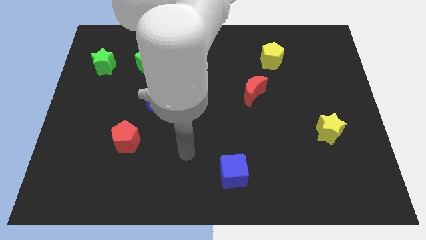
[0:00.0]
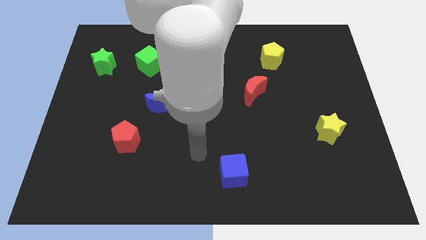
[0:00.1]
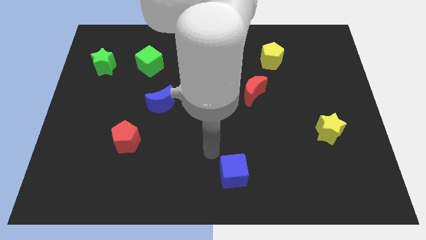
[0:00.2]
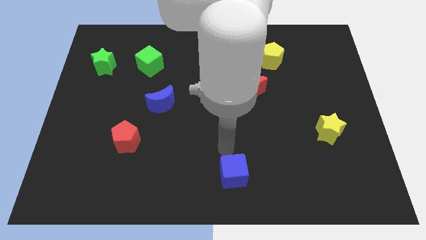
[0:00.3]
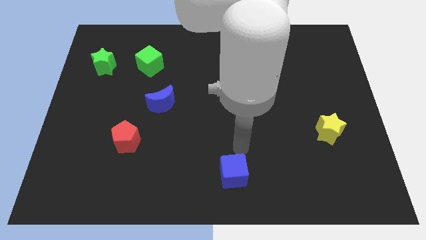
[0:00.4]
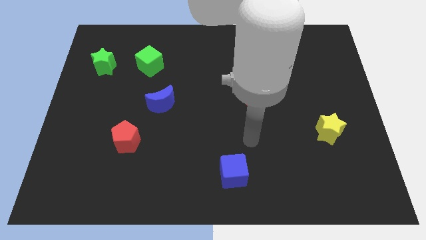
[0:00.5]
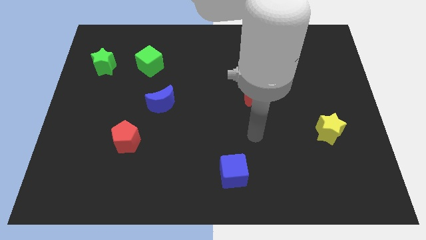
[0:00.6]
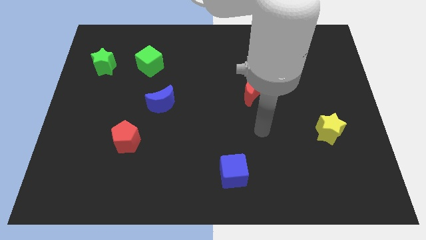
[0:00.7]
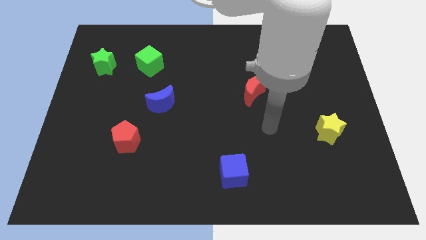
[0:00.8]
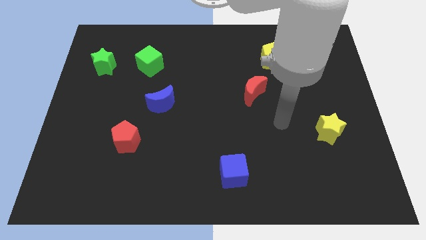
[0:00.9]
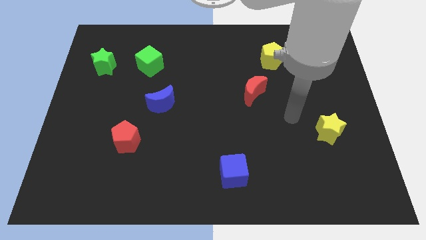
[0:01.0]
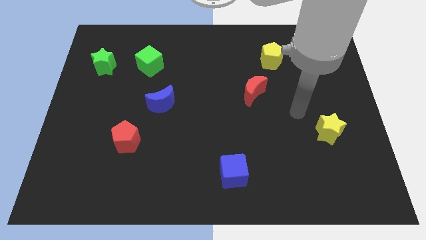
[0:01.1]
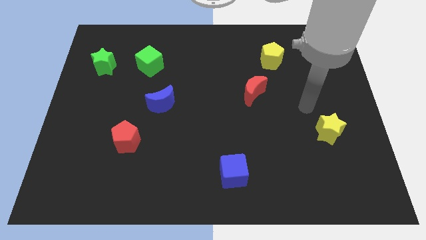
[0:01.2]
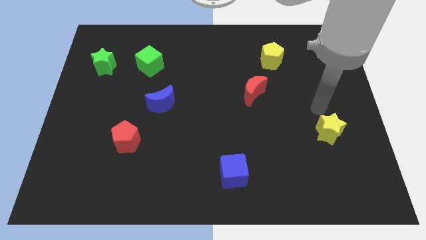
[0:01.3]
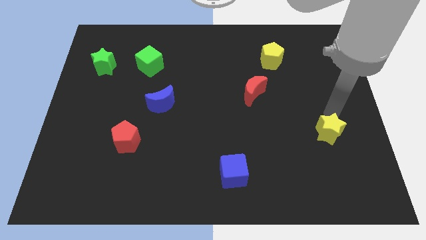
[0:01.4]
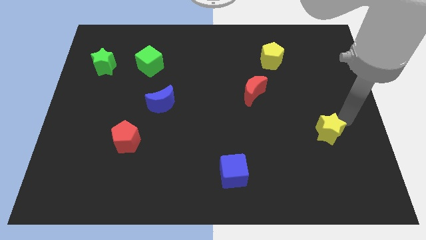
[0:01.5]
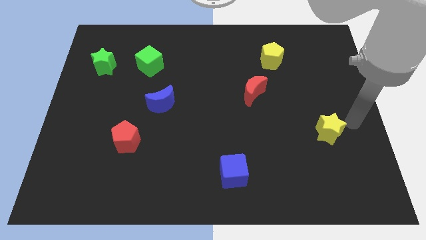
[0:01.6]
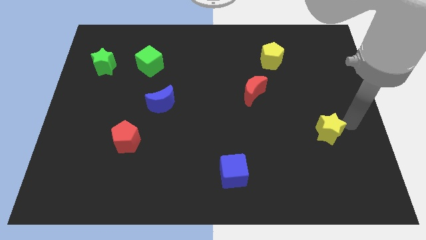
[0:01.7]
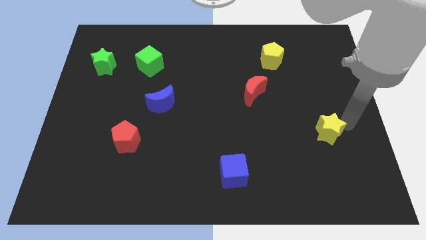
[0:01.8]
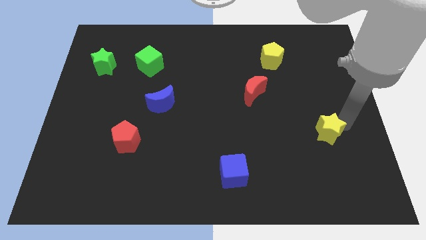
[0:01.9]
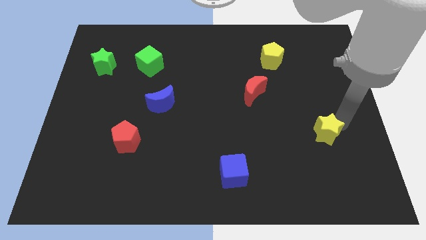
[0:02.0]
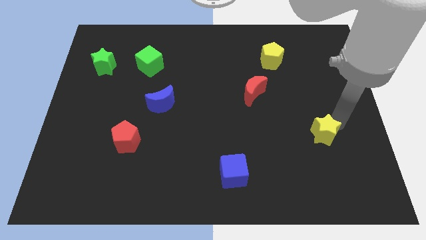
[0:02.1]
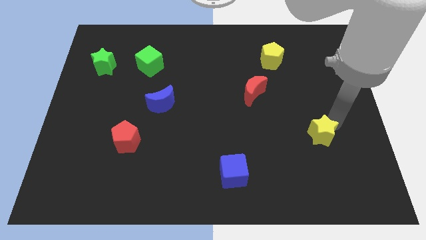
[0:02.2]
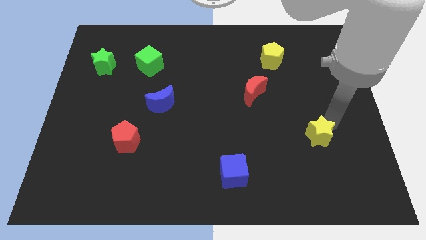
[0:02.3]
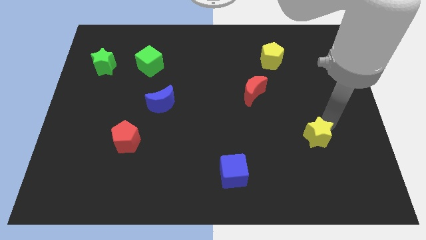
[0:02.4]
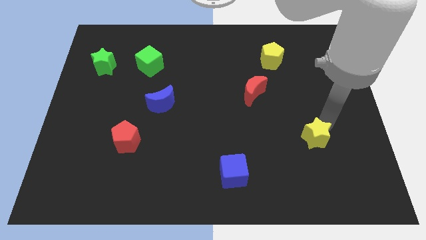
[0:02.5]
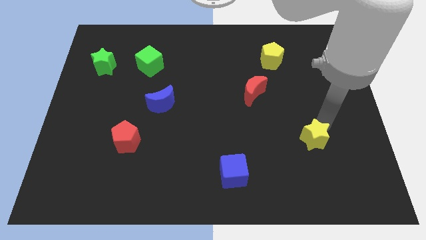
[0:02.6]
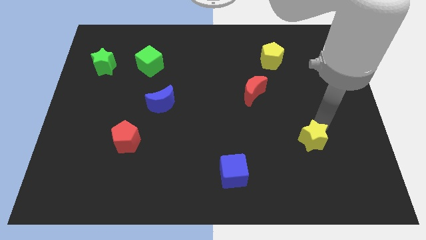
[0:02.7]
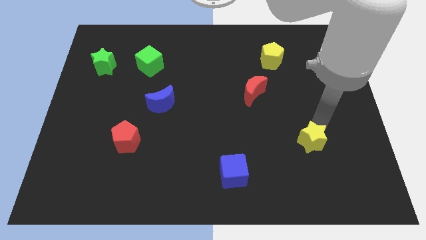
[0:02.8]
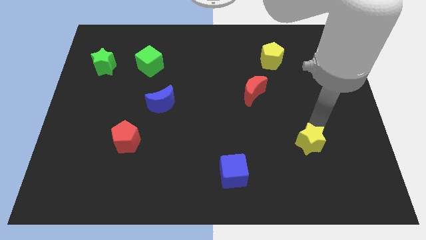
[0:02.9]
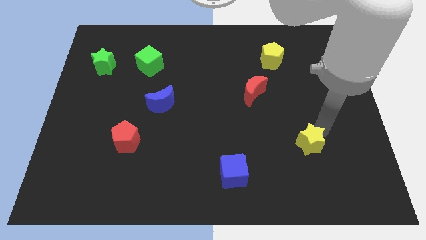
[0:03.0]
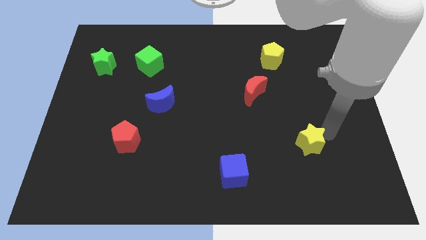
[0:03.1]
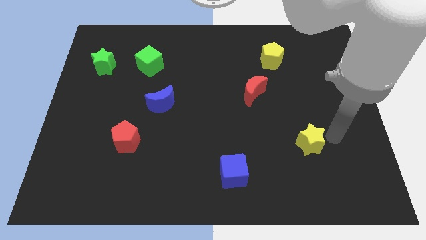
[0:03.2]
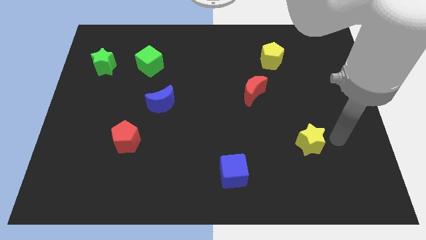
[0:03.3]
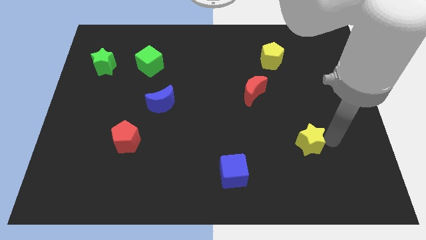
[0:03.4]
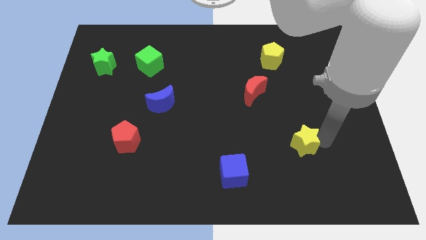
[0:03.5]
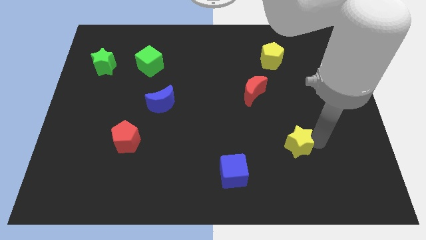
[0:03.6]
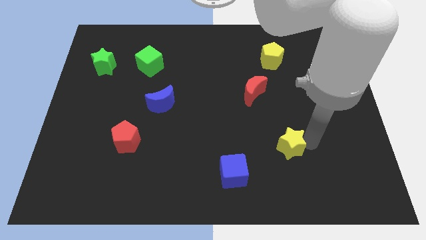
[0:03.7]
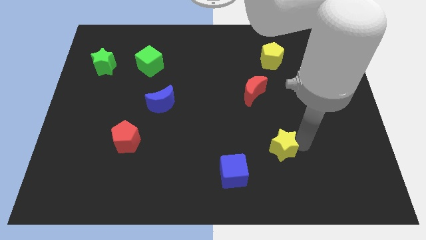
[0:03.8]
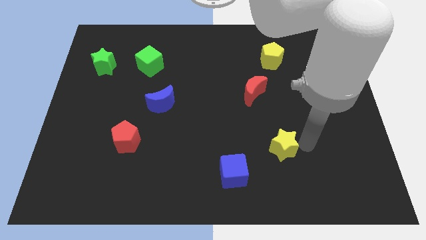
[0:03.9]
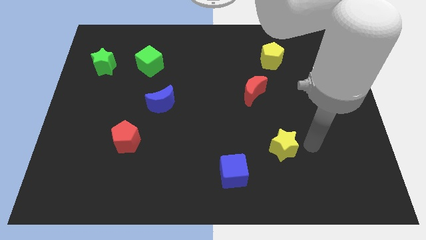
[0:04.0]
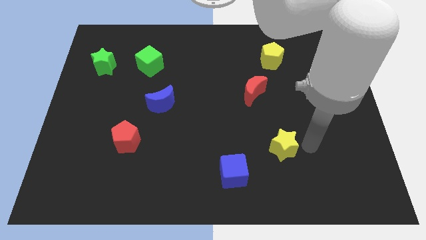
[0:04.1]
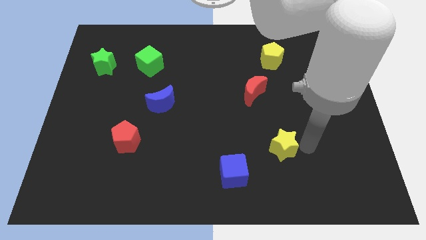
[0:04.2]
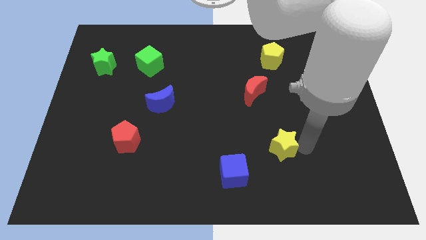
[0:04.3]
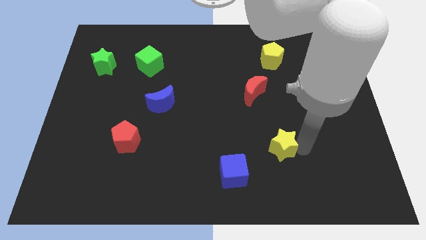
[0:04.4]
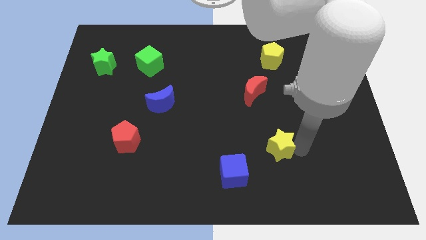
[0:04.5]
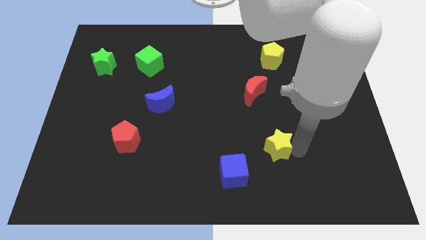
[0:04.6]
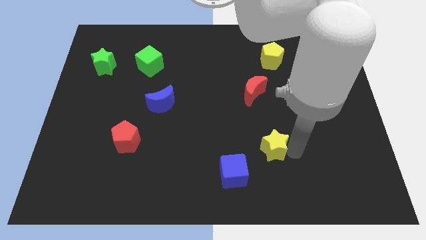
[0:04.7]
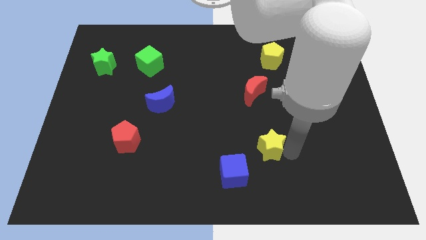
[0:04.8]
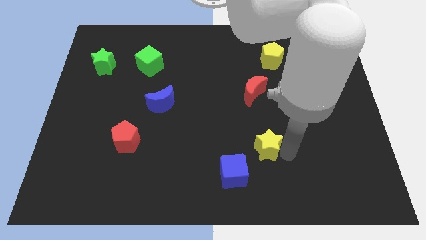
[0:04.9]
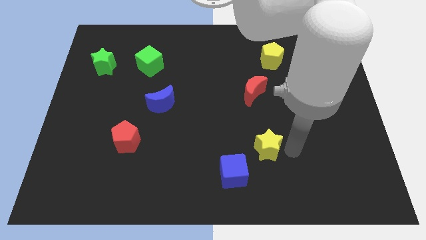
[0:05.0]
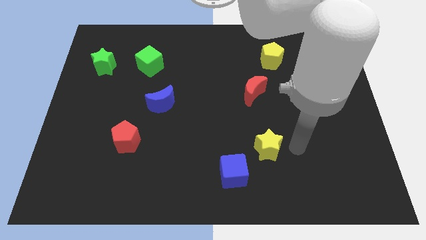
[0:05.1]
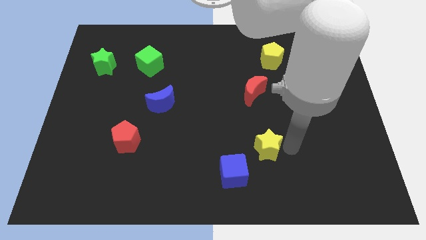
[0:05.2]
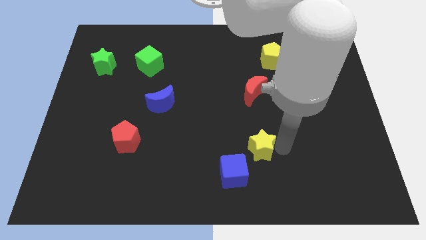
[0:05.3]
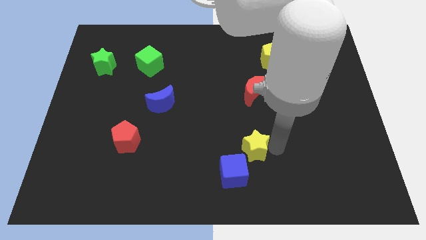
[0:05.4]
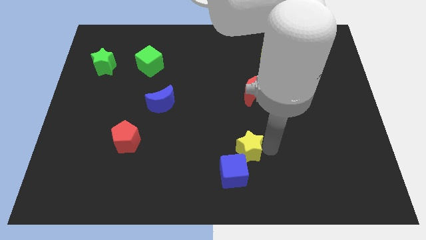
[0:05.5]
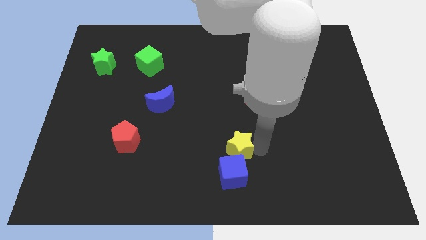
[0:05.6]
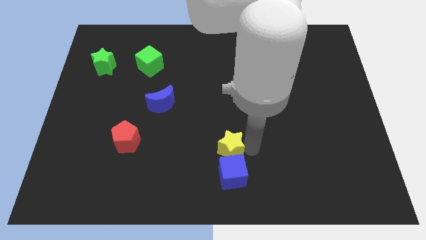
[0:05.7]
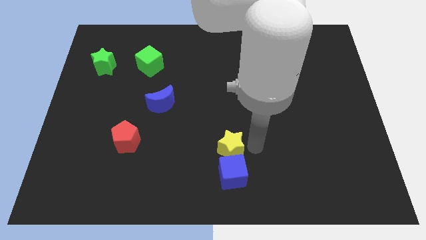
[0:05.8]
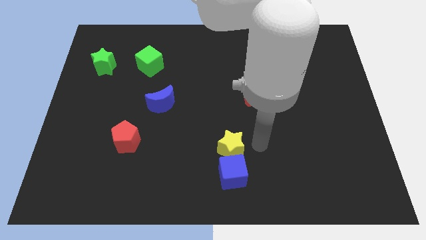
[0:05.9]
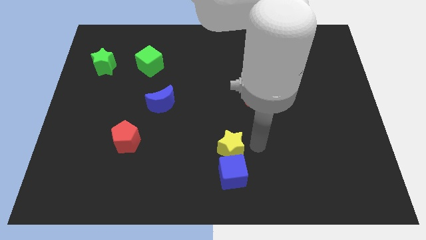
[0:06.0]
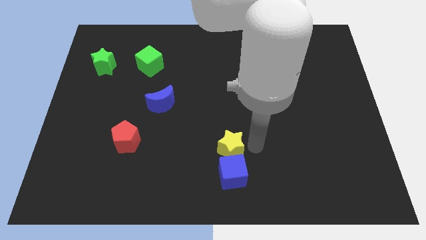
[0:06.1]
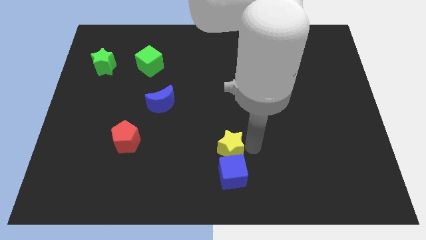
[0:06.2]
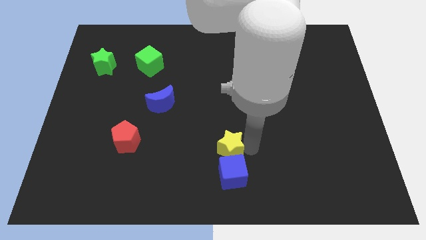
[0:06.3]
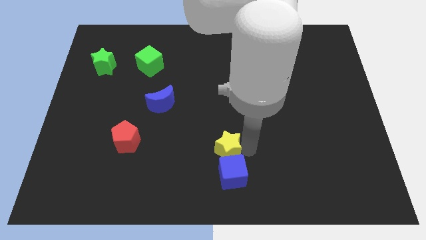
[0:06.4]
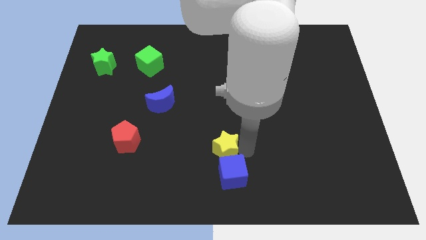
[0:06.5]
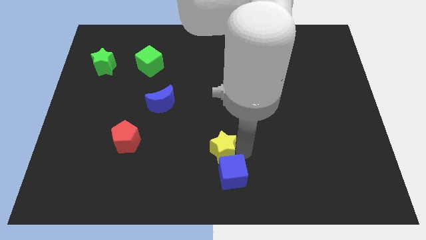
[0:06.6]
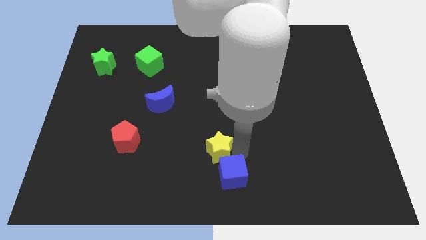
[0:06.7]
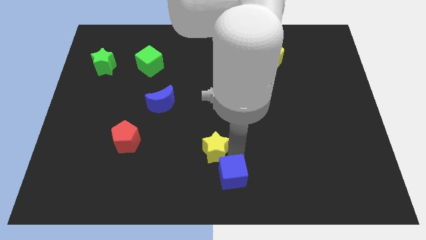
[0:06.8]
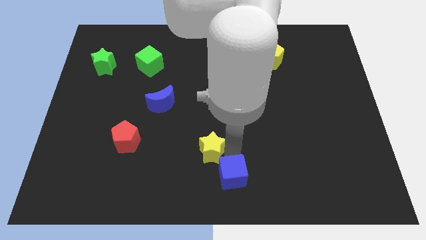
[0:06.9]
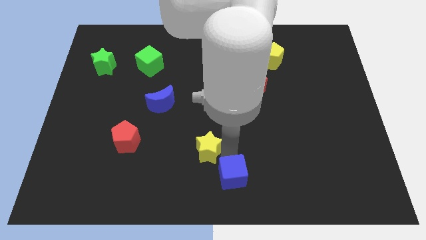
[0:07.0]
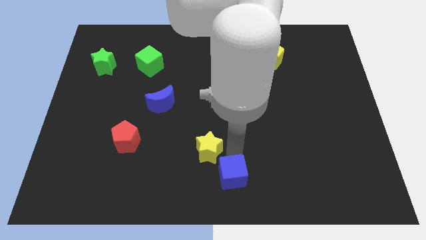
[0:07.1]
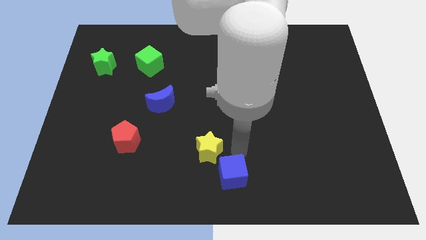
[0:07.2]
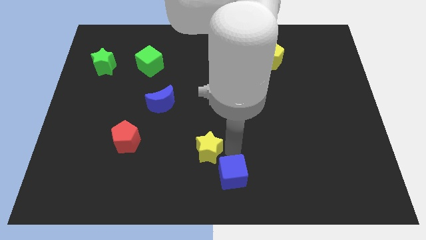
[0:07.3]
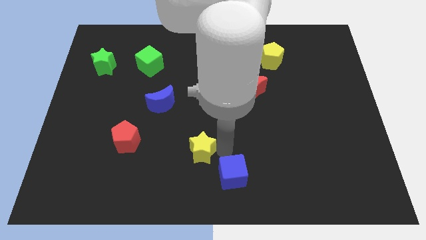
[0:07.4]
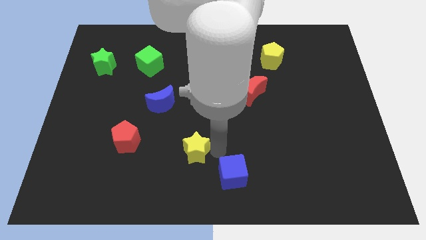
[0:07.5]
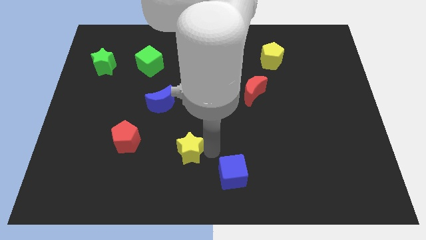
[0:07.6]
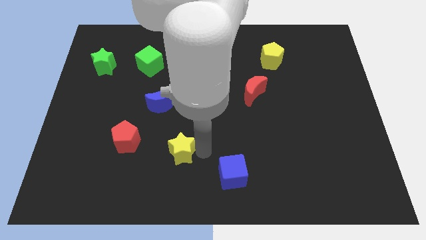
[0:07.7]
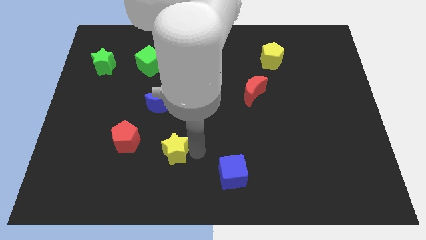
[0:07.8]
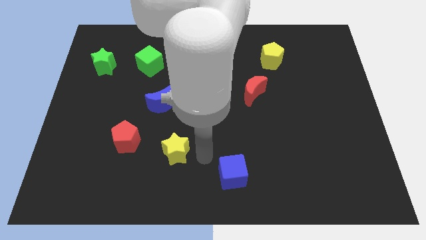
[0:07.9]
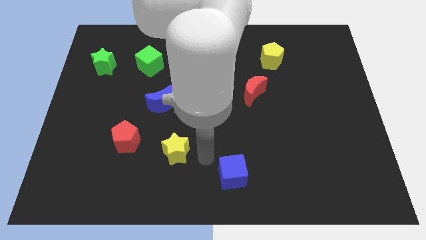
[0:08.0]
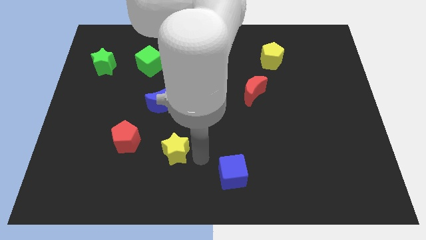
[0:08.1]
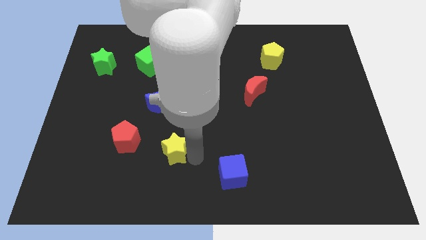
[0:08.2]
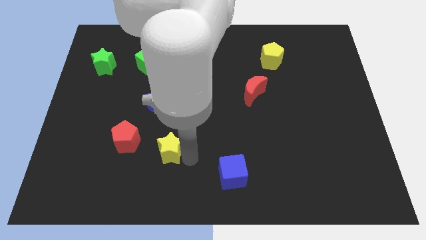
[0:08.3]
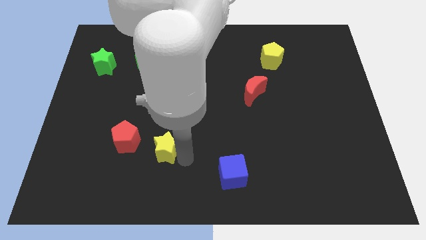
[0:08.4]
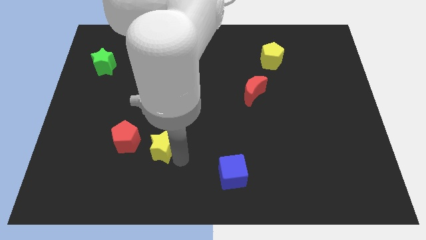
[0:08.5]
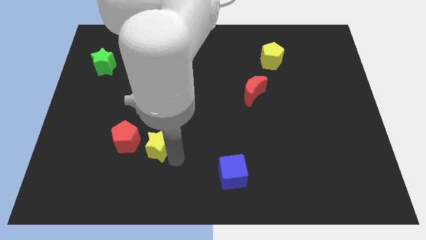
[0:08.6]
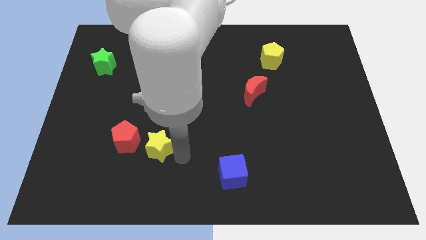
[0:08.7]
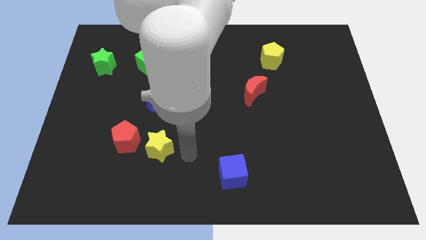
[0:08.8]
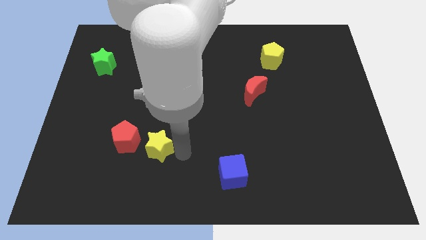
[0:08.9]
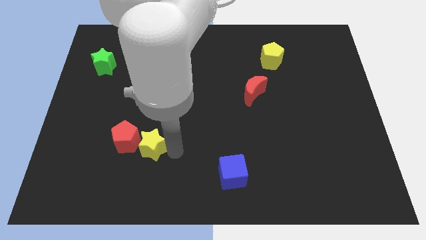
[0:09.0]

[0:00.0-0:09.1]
put the yellow star towards the red pentagon
